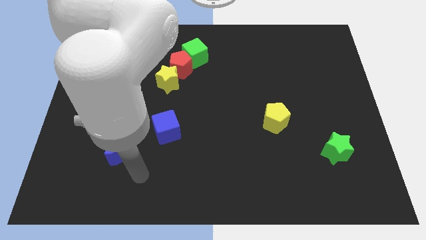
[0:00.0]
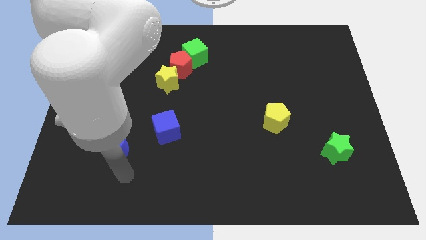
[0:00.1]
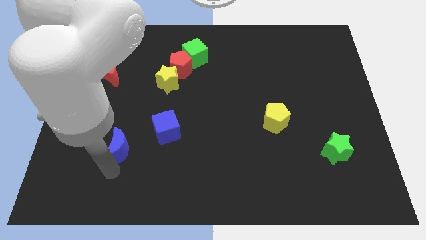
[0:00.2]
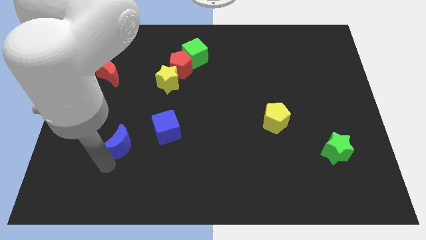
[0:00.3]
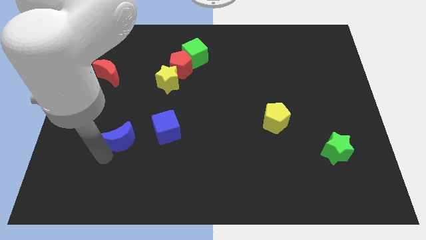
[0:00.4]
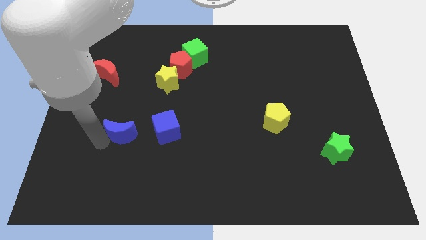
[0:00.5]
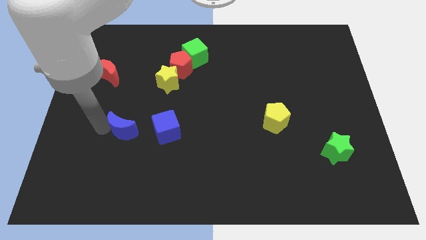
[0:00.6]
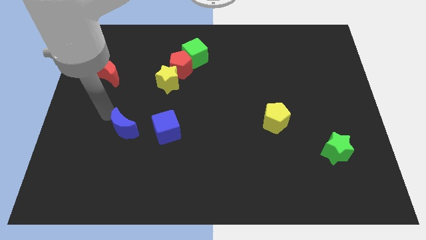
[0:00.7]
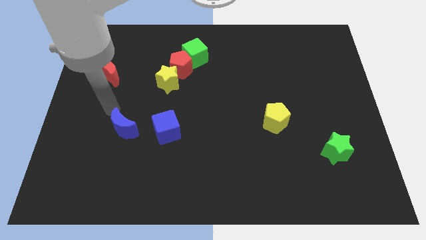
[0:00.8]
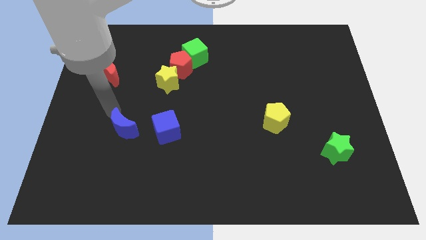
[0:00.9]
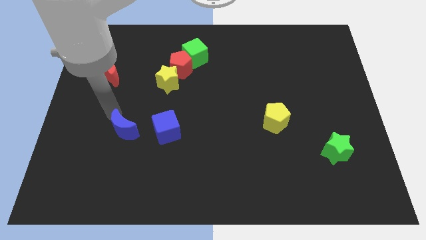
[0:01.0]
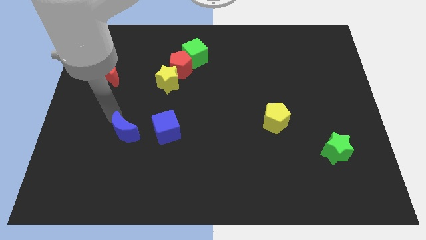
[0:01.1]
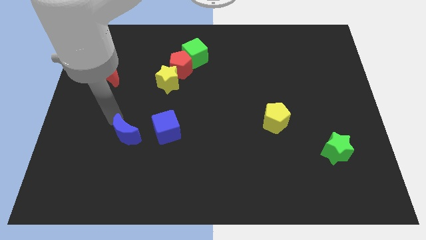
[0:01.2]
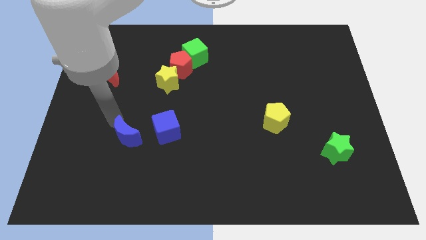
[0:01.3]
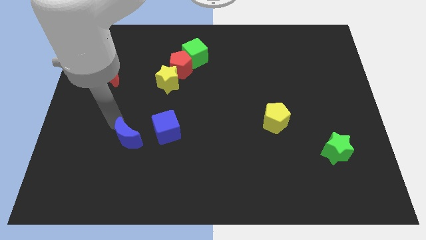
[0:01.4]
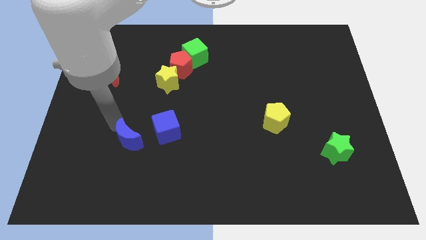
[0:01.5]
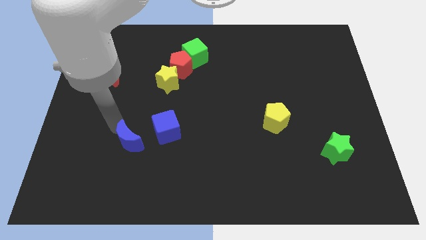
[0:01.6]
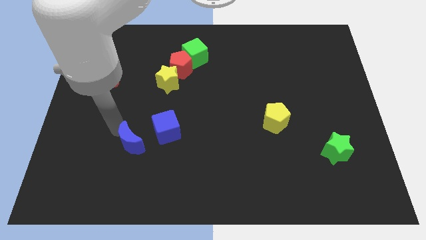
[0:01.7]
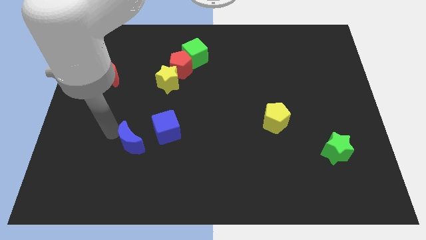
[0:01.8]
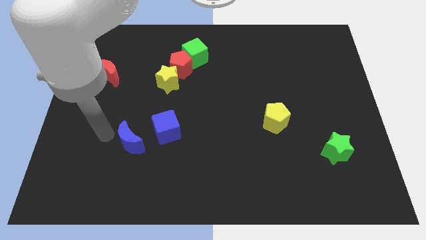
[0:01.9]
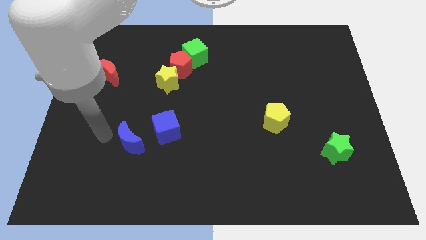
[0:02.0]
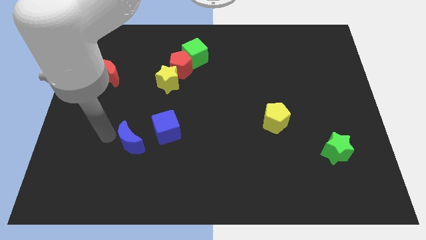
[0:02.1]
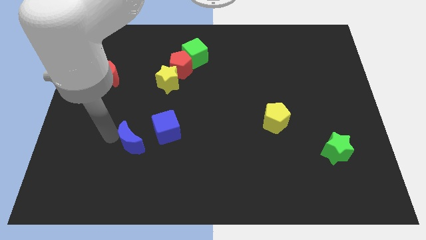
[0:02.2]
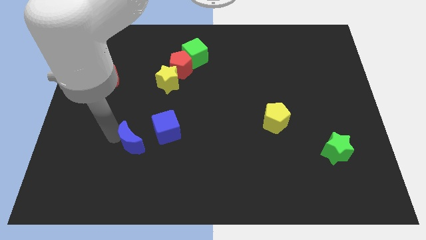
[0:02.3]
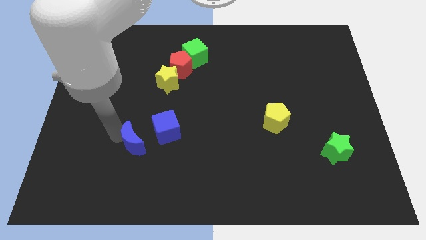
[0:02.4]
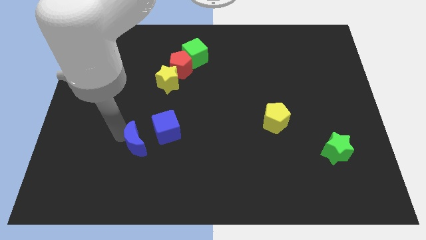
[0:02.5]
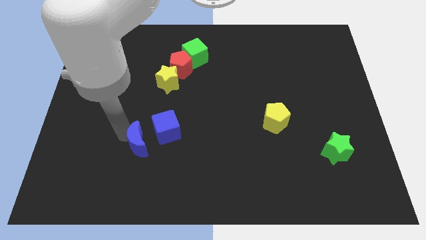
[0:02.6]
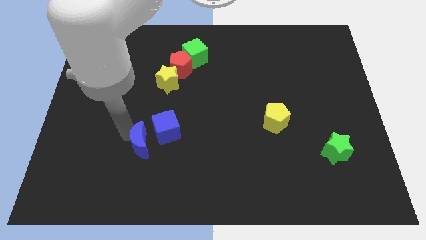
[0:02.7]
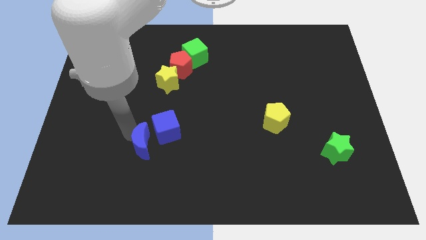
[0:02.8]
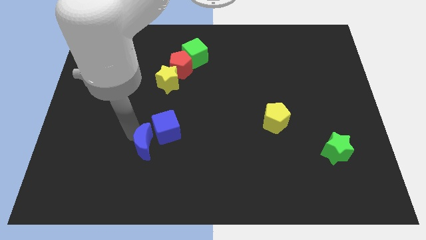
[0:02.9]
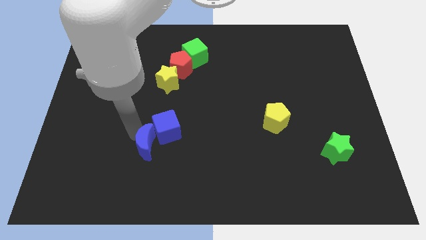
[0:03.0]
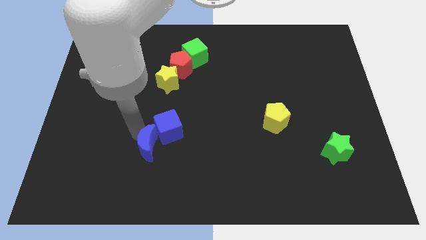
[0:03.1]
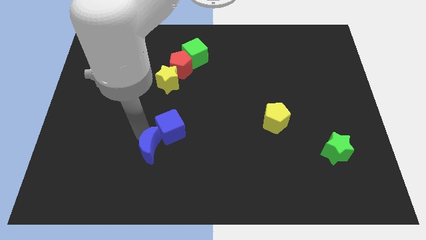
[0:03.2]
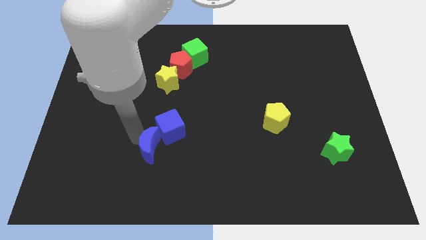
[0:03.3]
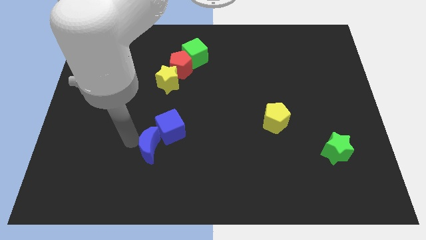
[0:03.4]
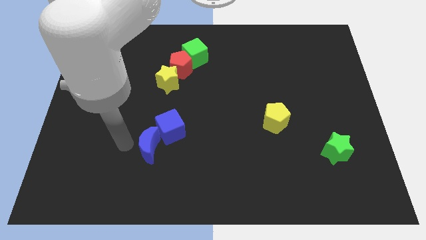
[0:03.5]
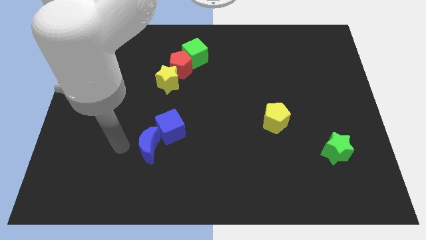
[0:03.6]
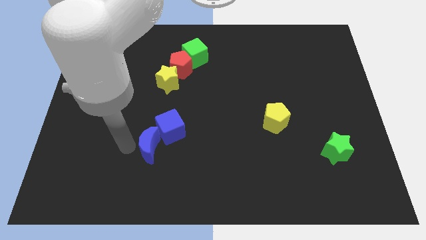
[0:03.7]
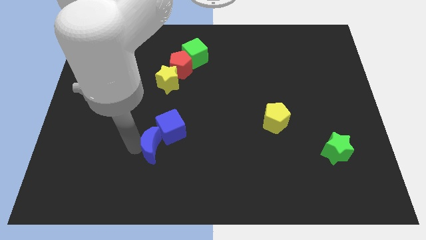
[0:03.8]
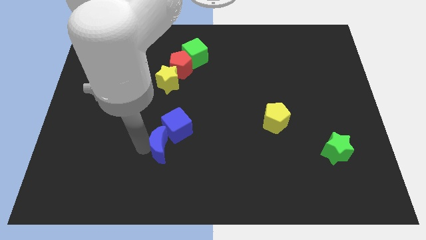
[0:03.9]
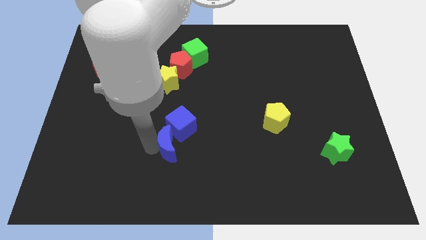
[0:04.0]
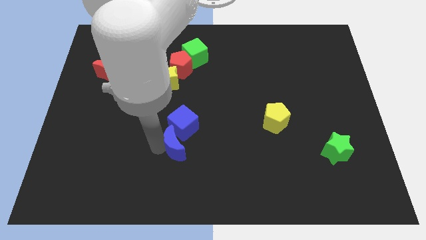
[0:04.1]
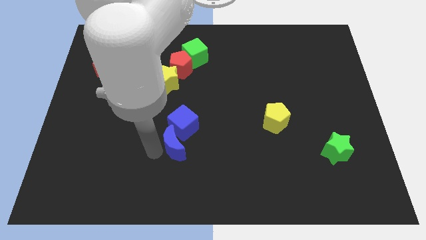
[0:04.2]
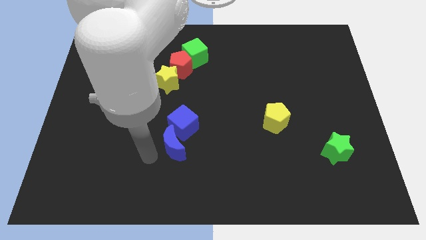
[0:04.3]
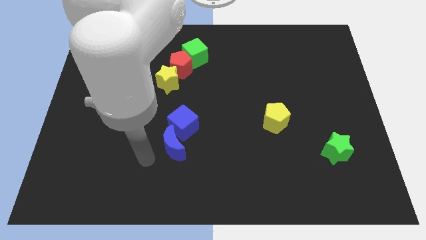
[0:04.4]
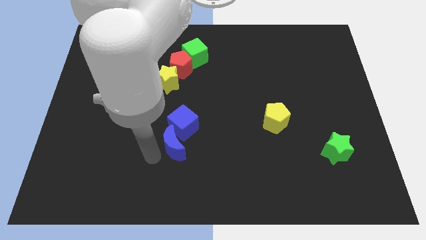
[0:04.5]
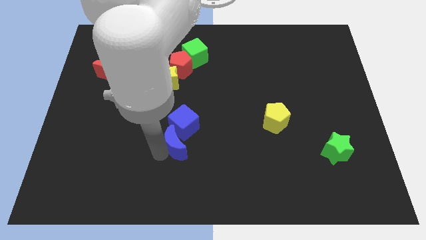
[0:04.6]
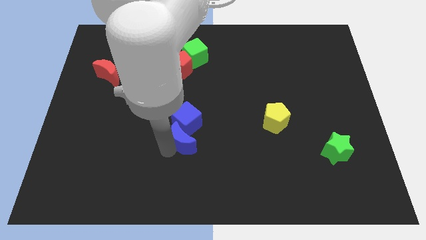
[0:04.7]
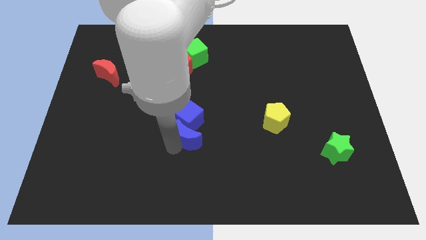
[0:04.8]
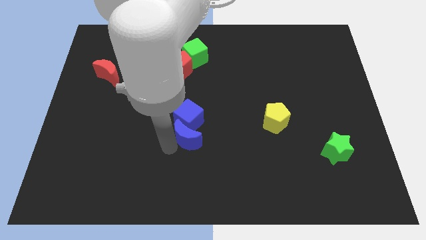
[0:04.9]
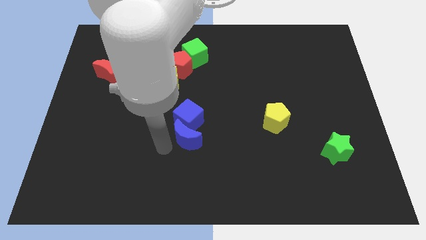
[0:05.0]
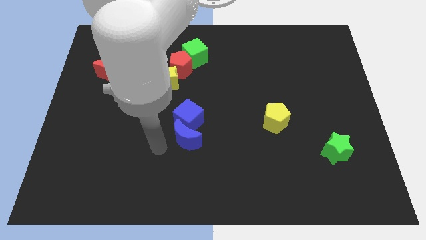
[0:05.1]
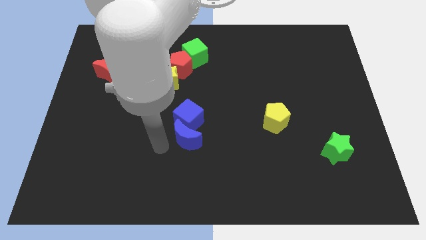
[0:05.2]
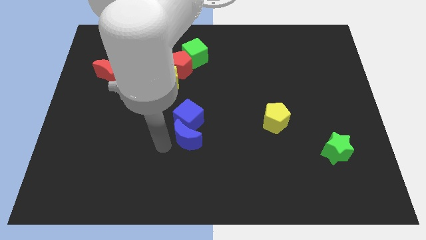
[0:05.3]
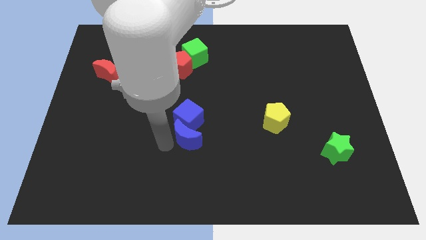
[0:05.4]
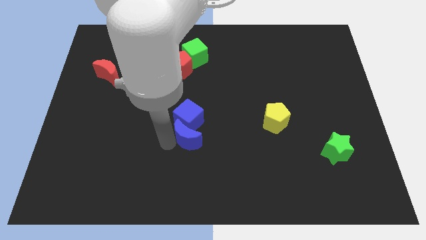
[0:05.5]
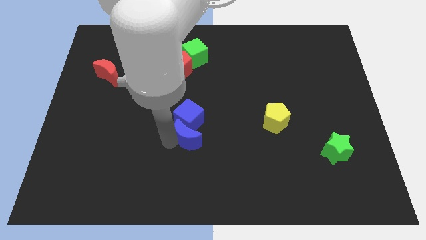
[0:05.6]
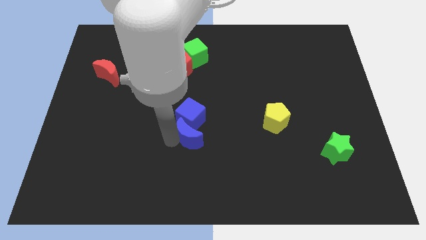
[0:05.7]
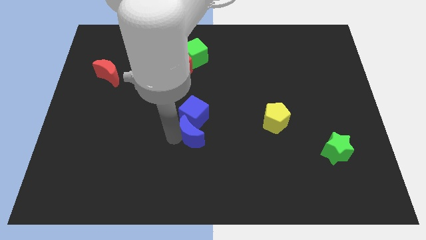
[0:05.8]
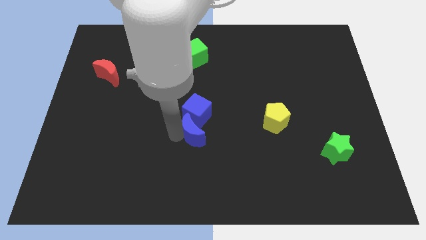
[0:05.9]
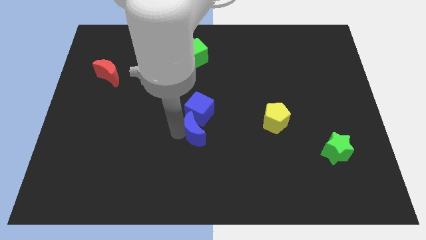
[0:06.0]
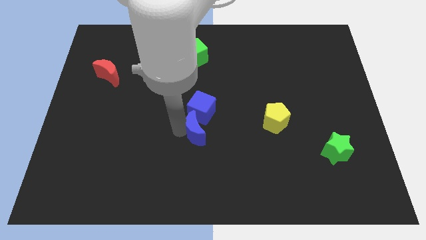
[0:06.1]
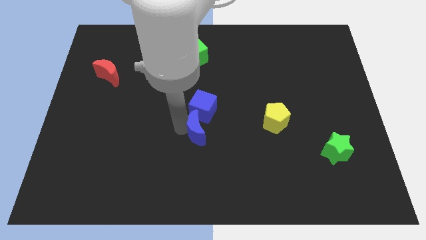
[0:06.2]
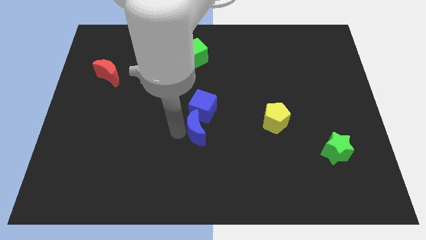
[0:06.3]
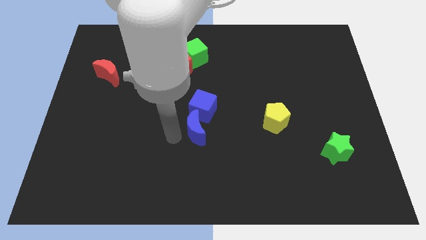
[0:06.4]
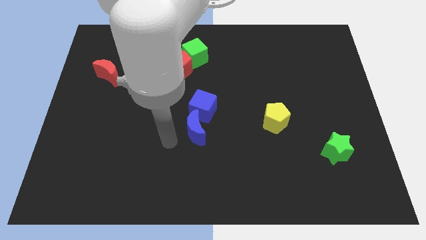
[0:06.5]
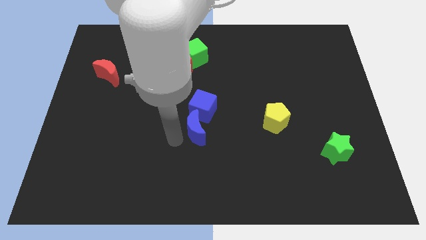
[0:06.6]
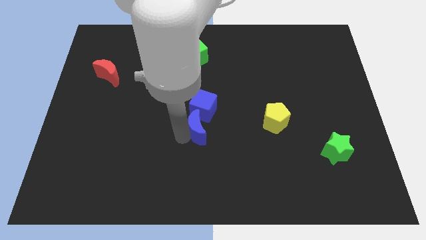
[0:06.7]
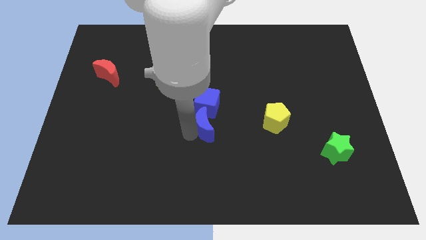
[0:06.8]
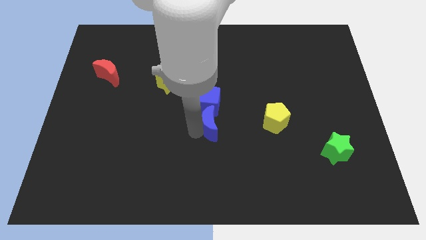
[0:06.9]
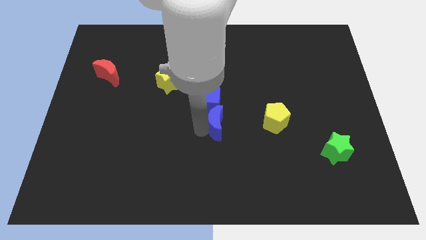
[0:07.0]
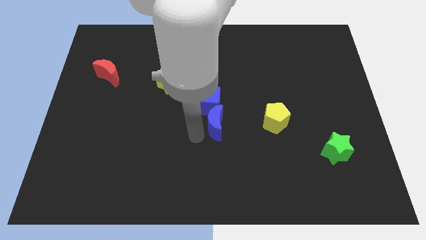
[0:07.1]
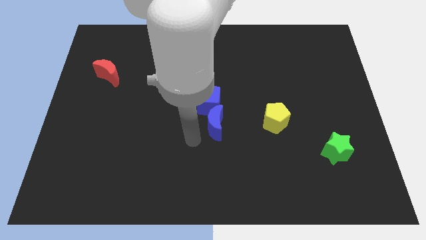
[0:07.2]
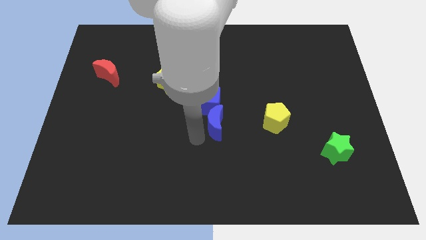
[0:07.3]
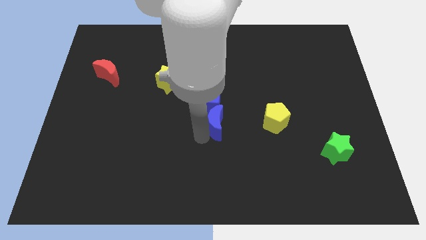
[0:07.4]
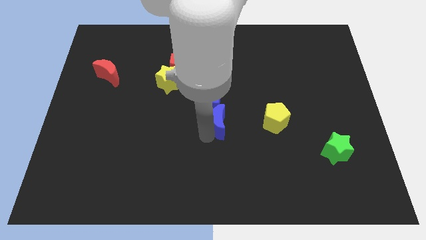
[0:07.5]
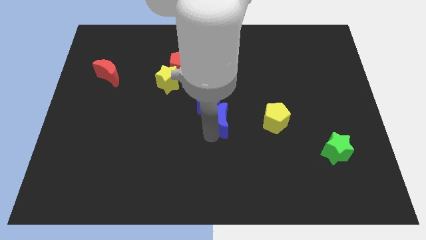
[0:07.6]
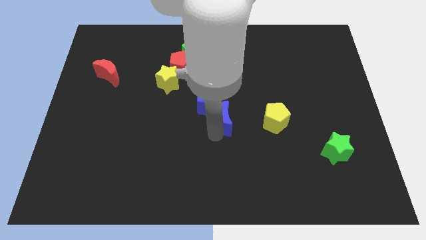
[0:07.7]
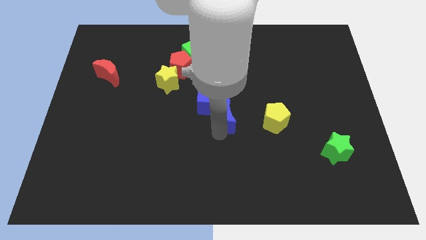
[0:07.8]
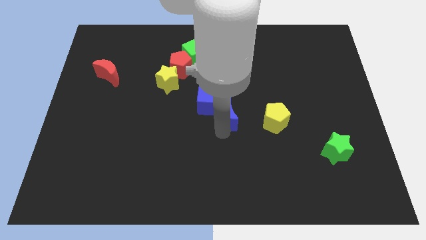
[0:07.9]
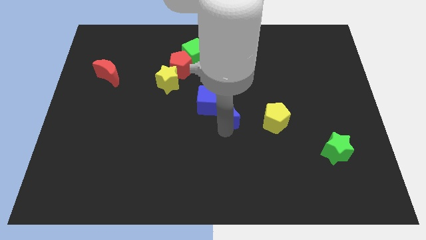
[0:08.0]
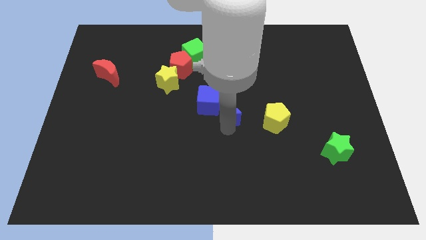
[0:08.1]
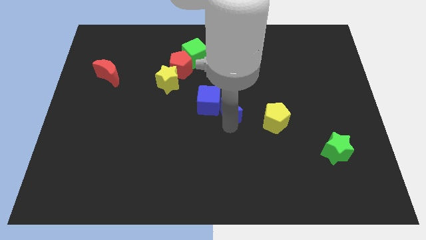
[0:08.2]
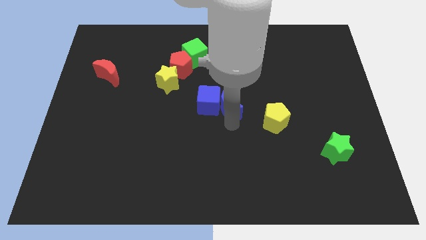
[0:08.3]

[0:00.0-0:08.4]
slide the blue moon to the top left of the yellow pentagon
